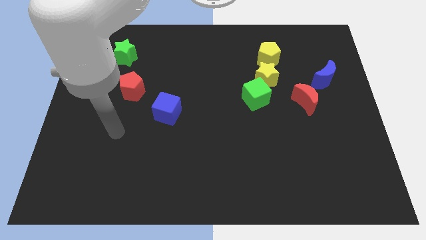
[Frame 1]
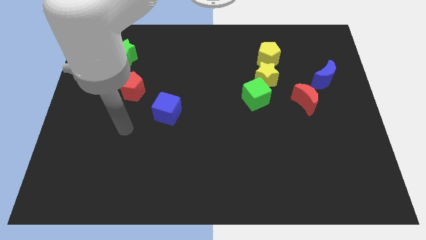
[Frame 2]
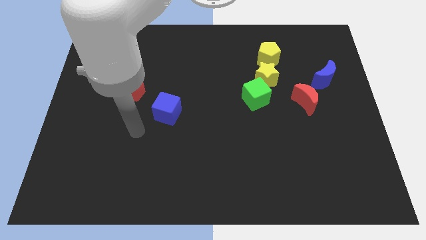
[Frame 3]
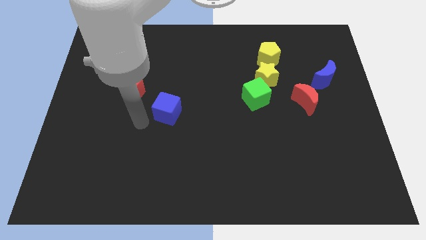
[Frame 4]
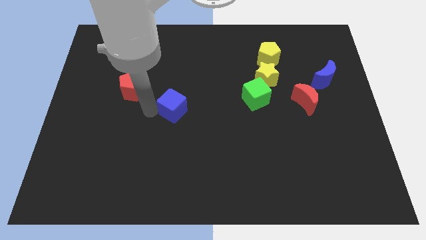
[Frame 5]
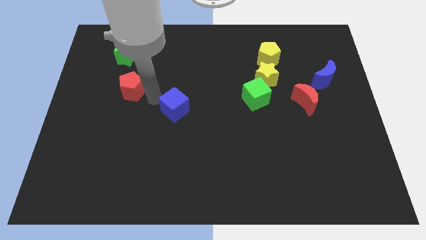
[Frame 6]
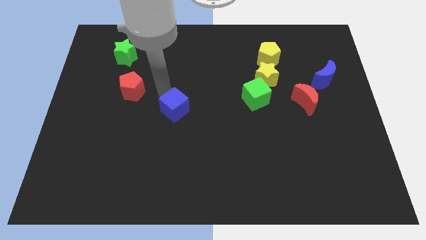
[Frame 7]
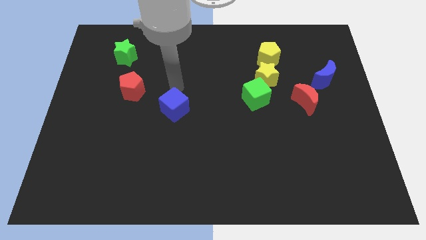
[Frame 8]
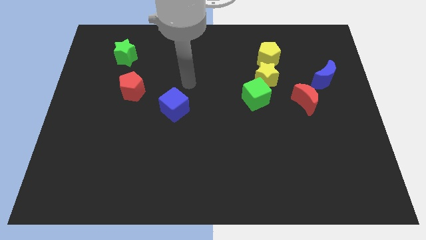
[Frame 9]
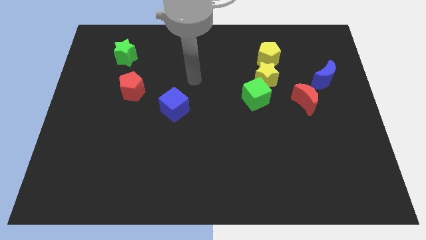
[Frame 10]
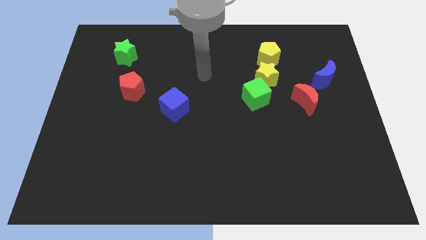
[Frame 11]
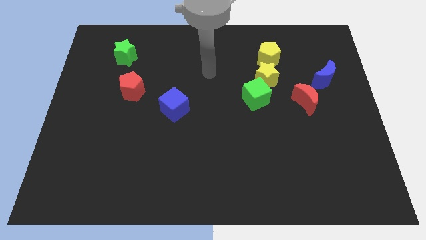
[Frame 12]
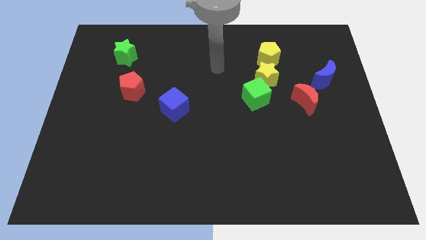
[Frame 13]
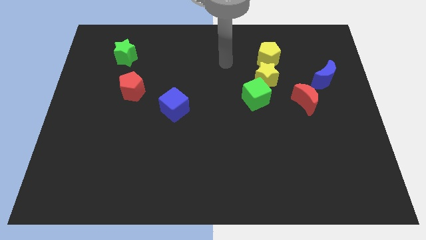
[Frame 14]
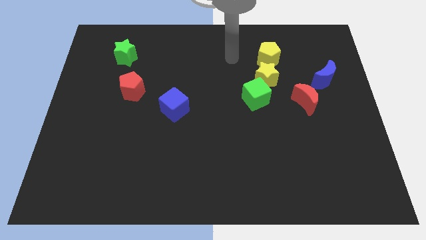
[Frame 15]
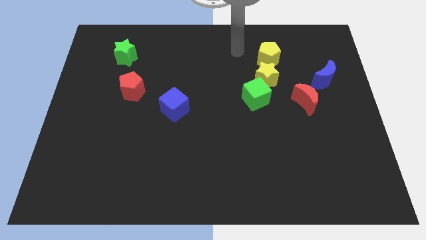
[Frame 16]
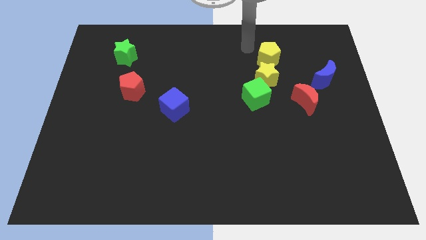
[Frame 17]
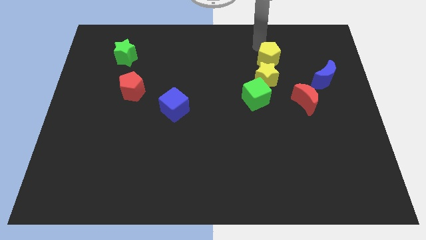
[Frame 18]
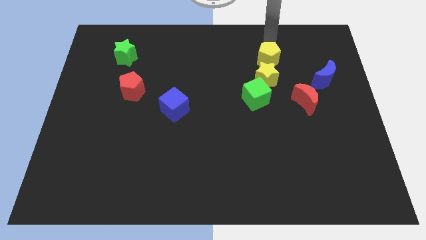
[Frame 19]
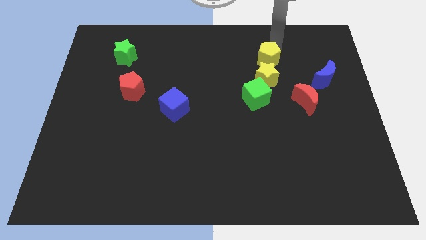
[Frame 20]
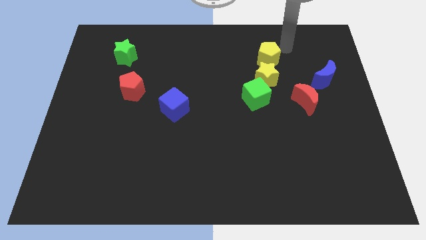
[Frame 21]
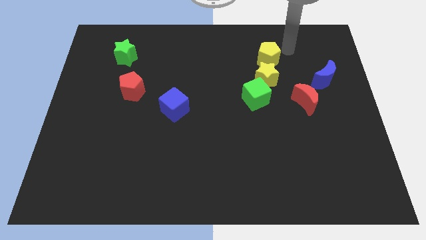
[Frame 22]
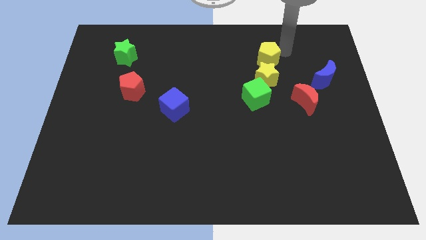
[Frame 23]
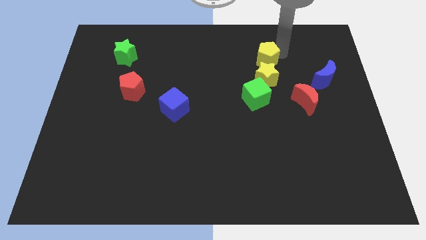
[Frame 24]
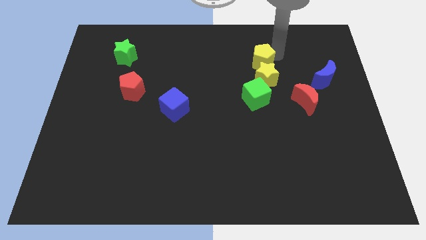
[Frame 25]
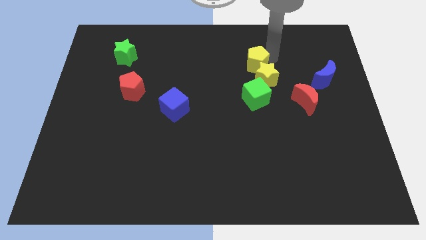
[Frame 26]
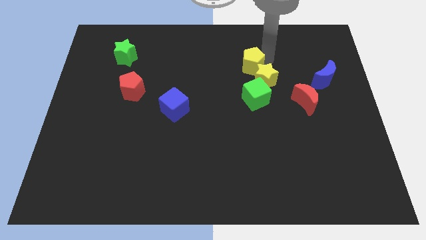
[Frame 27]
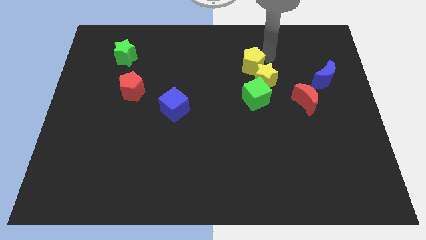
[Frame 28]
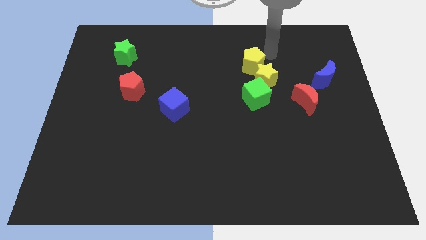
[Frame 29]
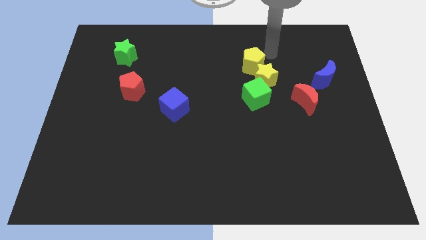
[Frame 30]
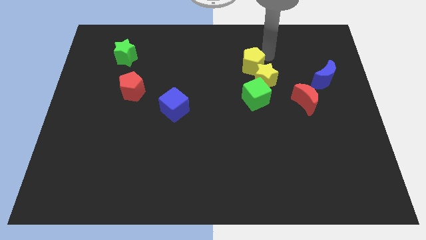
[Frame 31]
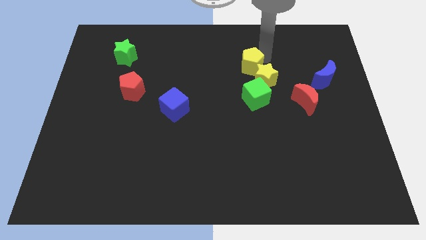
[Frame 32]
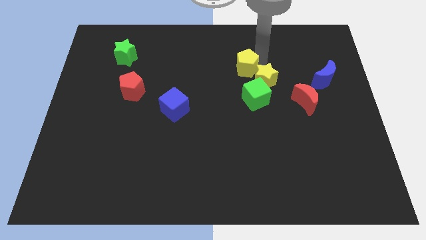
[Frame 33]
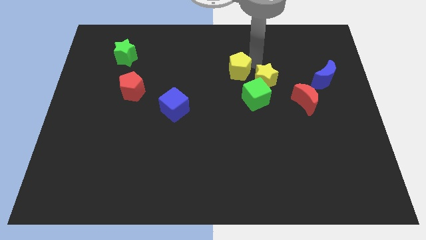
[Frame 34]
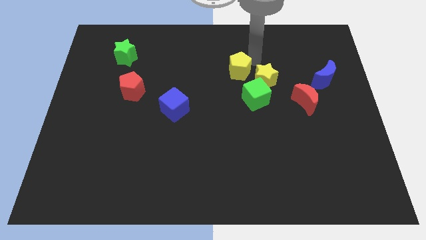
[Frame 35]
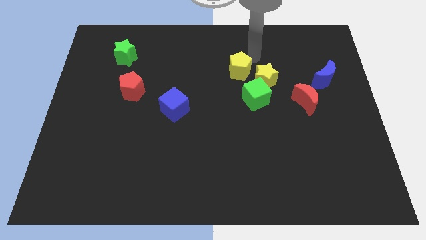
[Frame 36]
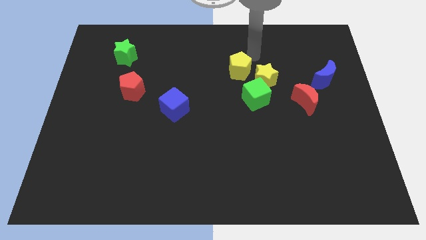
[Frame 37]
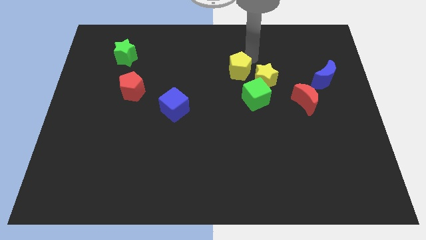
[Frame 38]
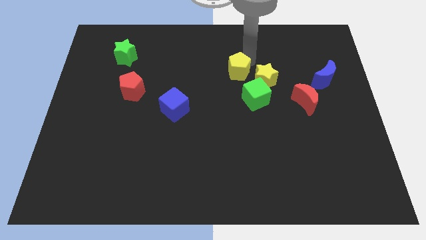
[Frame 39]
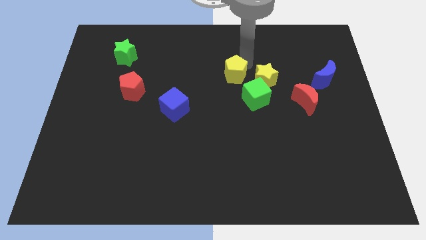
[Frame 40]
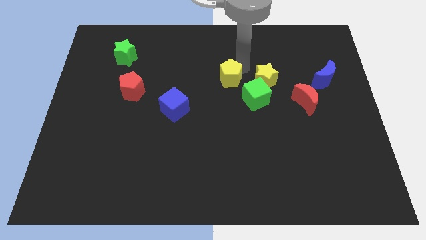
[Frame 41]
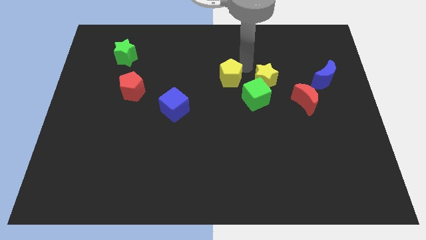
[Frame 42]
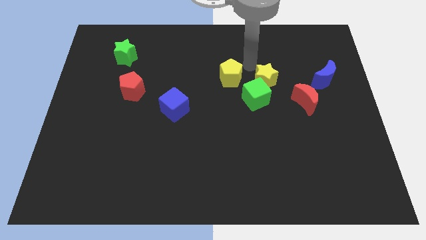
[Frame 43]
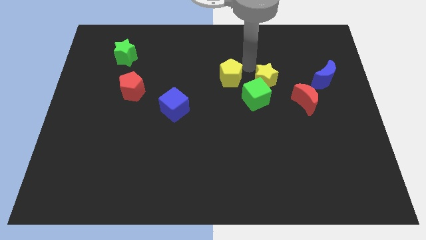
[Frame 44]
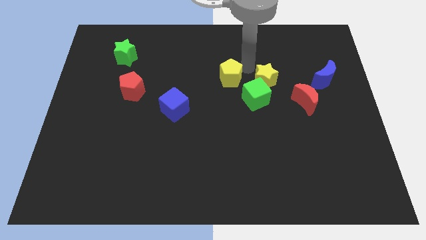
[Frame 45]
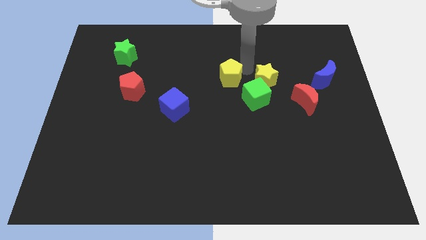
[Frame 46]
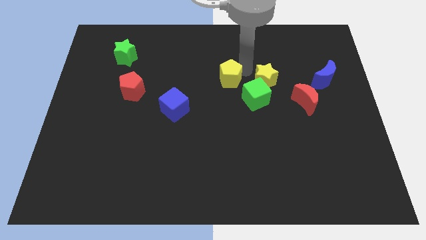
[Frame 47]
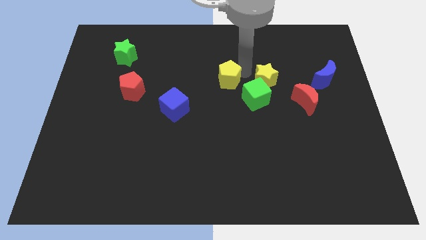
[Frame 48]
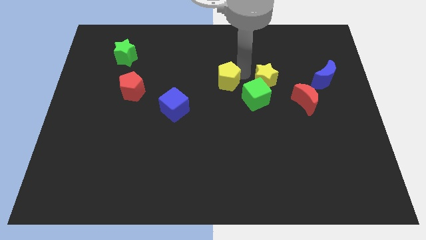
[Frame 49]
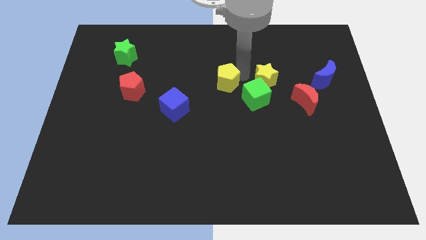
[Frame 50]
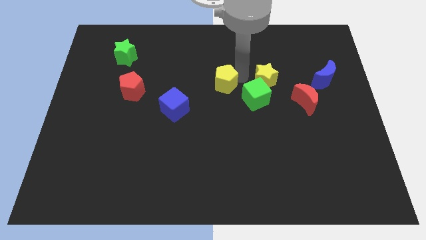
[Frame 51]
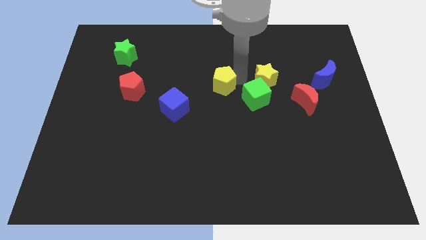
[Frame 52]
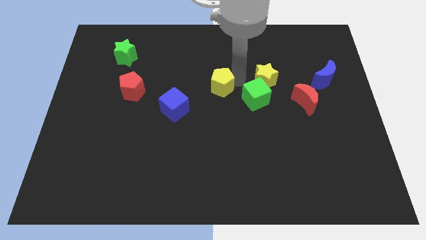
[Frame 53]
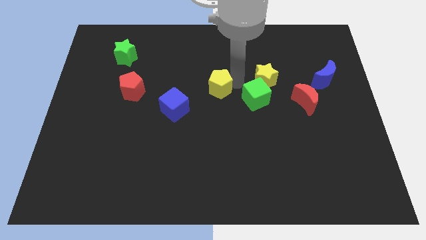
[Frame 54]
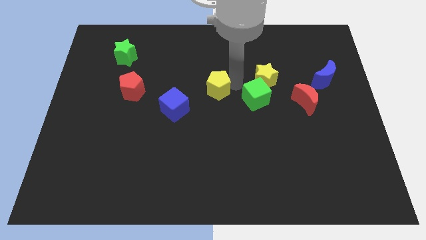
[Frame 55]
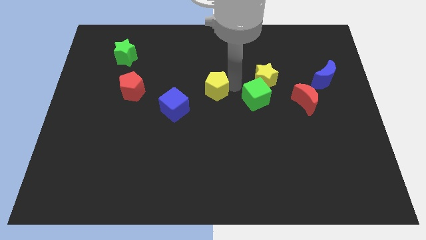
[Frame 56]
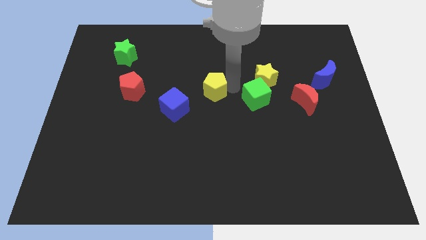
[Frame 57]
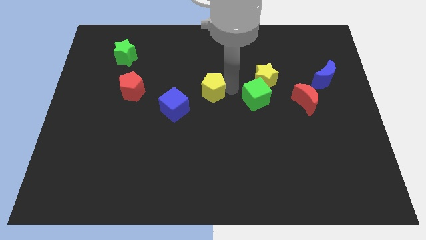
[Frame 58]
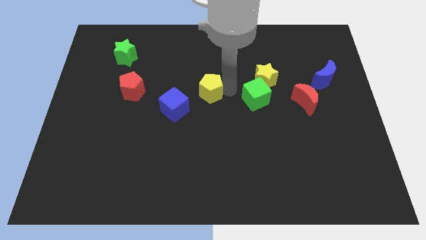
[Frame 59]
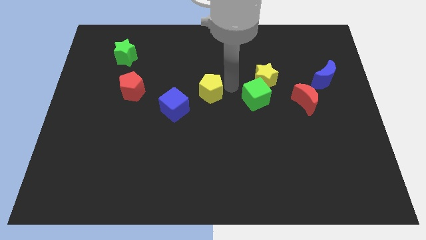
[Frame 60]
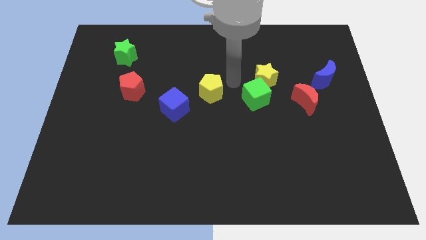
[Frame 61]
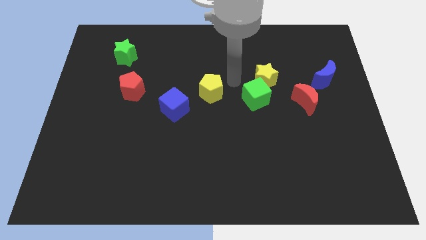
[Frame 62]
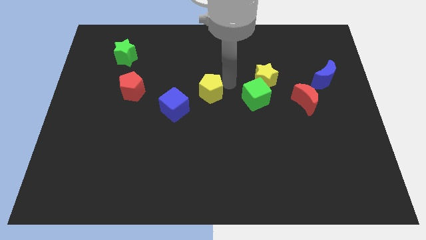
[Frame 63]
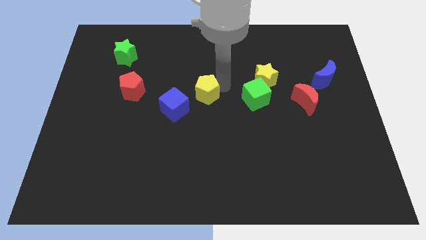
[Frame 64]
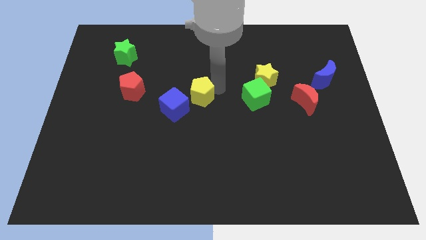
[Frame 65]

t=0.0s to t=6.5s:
slide the yellow pentagon downwards and left

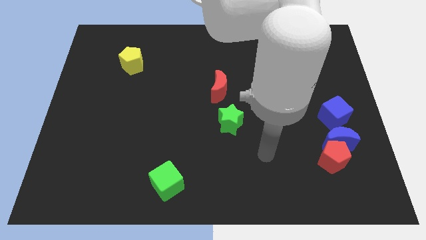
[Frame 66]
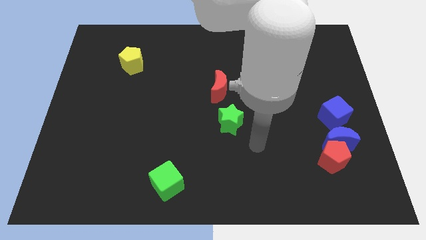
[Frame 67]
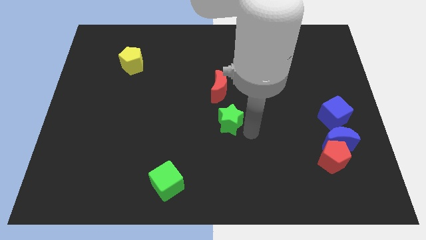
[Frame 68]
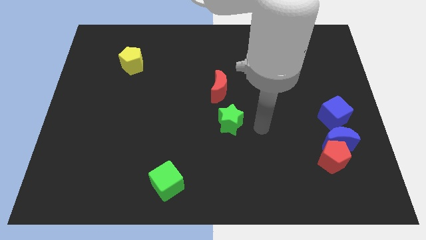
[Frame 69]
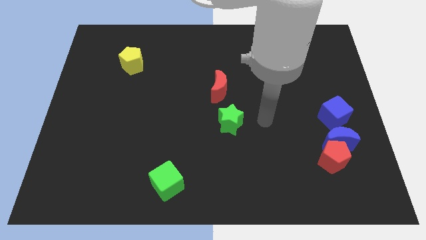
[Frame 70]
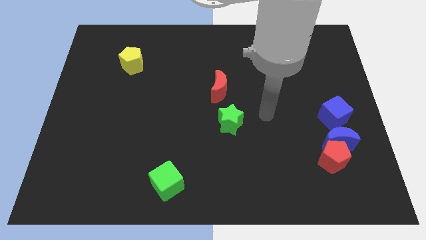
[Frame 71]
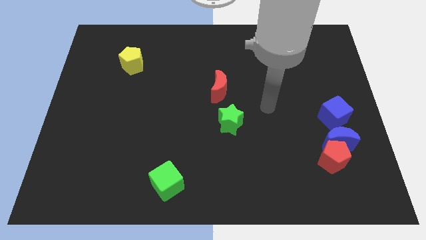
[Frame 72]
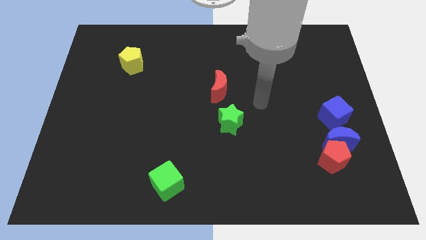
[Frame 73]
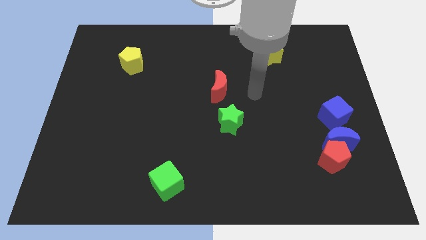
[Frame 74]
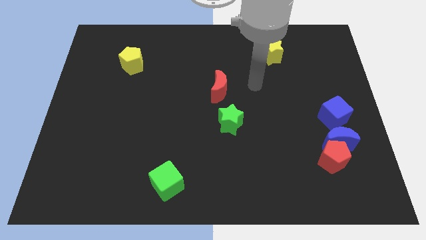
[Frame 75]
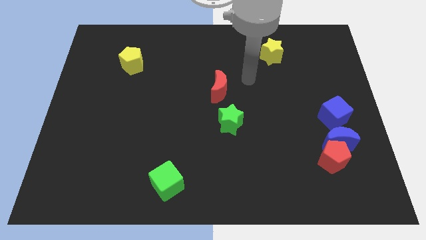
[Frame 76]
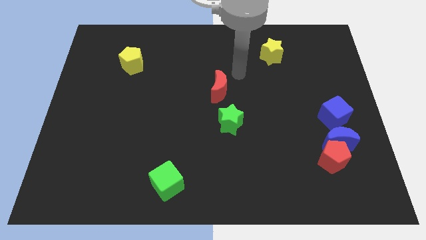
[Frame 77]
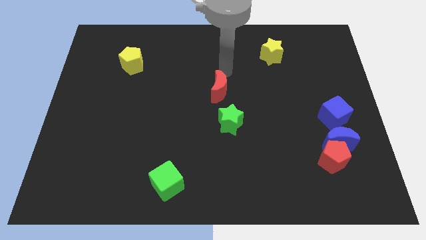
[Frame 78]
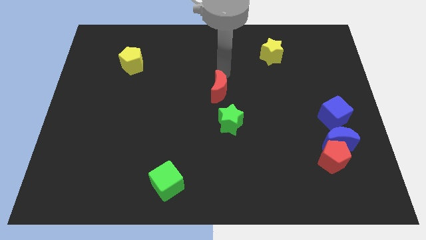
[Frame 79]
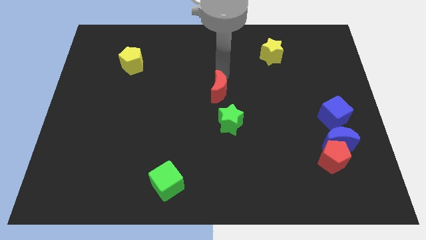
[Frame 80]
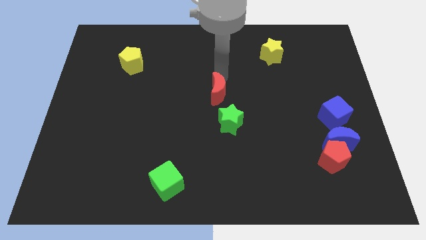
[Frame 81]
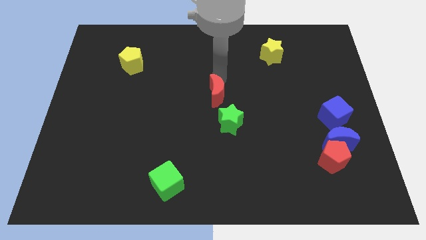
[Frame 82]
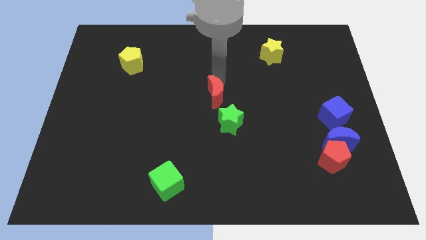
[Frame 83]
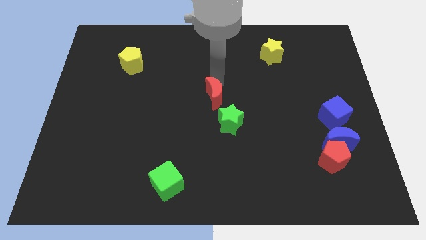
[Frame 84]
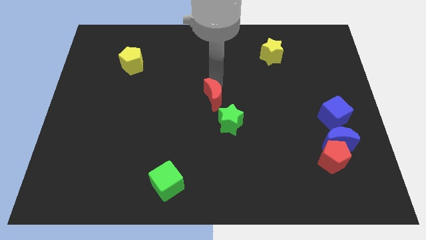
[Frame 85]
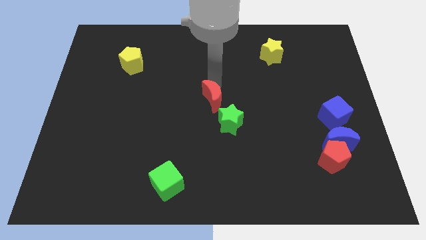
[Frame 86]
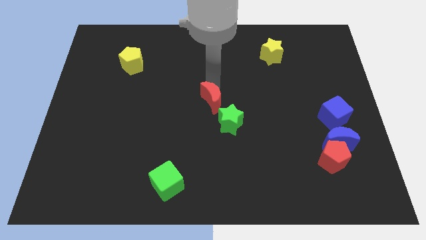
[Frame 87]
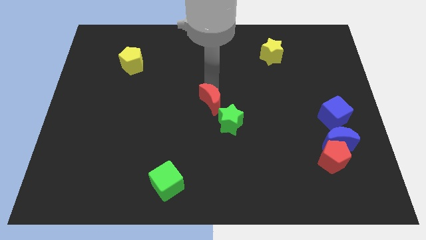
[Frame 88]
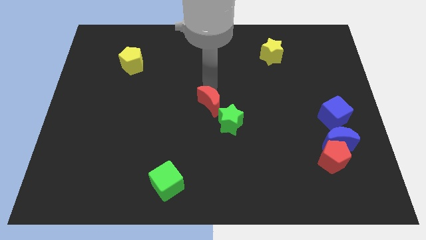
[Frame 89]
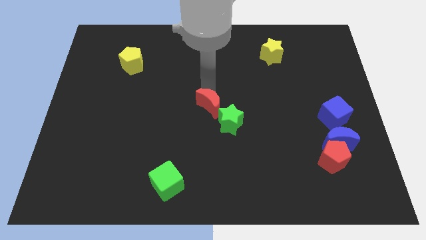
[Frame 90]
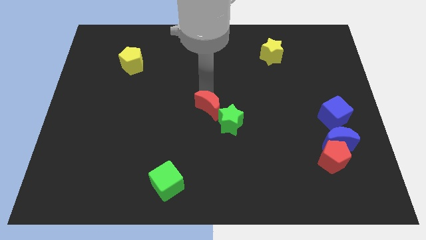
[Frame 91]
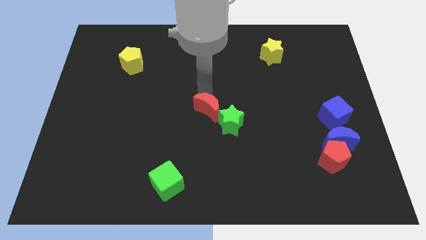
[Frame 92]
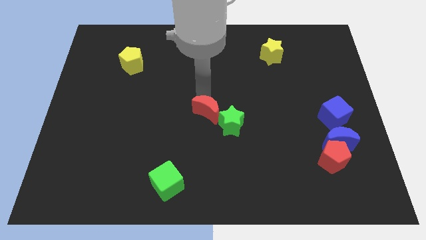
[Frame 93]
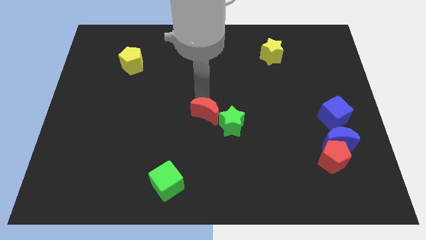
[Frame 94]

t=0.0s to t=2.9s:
slightly move the red moon downwards
